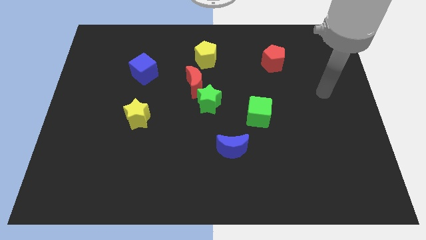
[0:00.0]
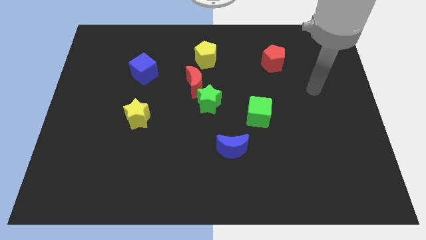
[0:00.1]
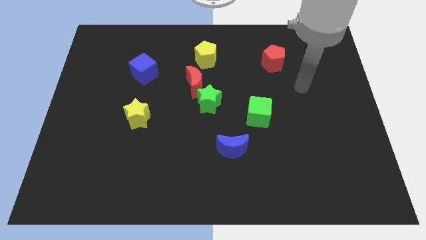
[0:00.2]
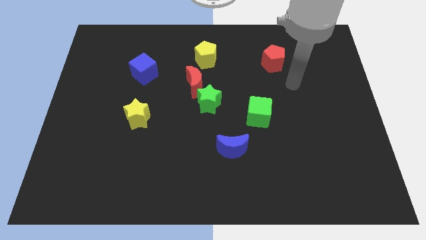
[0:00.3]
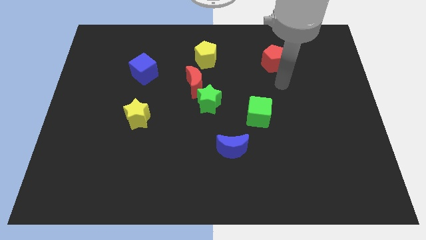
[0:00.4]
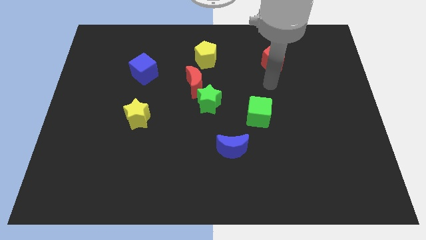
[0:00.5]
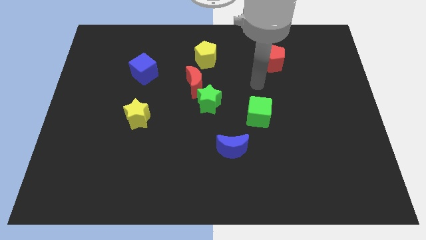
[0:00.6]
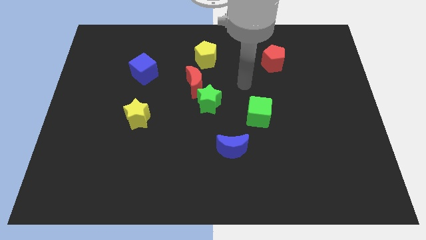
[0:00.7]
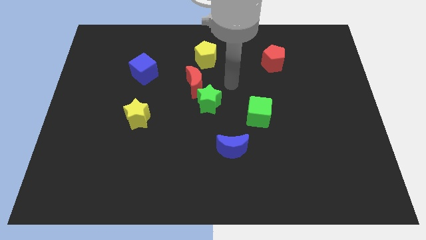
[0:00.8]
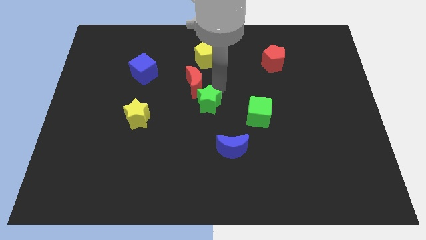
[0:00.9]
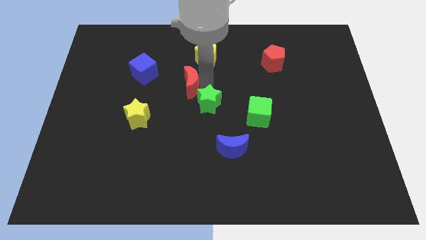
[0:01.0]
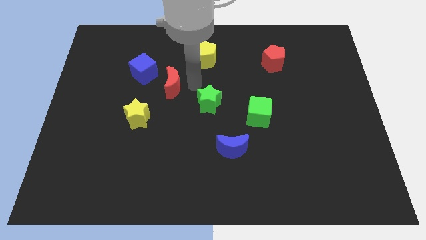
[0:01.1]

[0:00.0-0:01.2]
move the green star away from the red moon

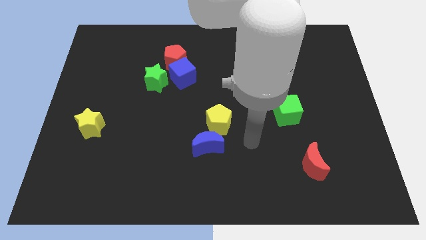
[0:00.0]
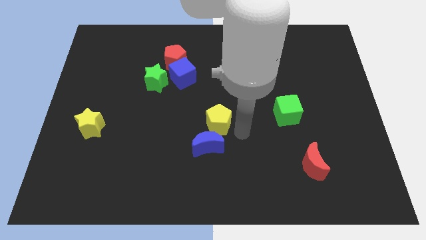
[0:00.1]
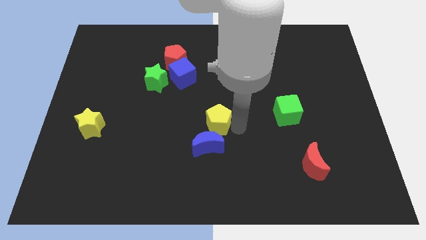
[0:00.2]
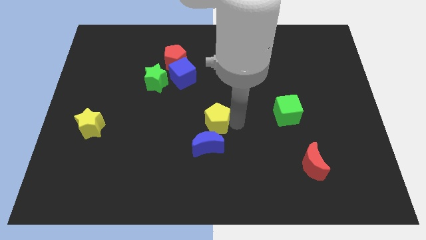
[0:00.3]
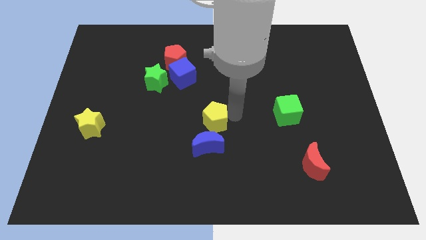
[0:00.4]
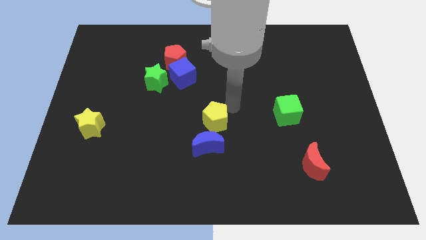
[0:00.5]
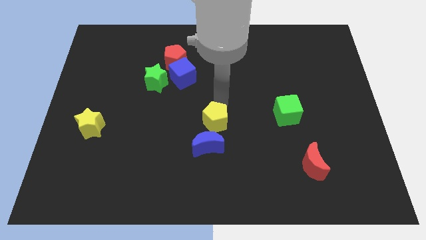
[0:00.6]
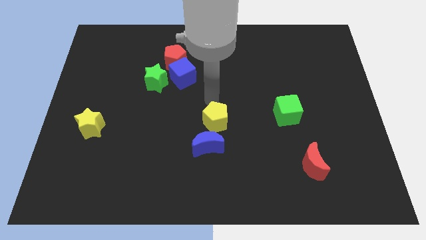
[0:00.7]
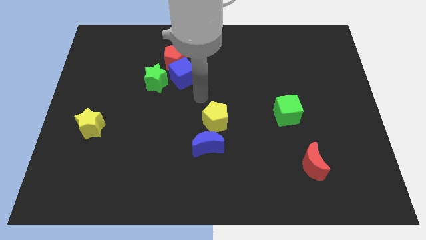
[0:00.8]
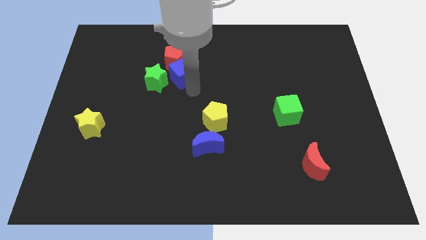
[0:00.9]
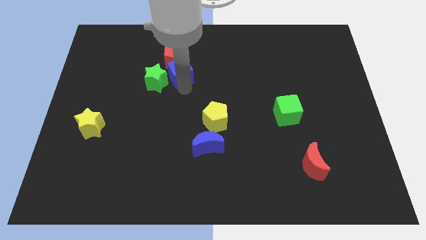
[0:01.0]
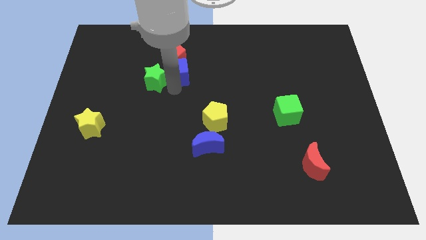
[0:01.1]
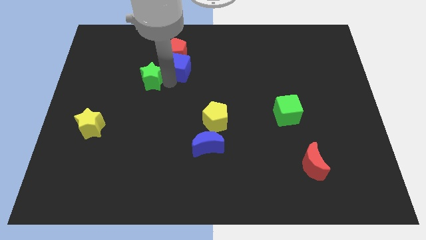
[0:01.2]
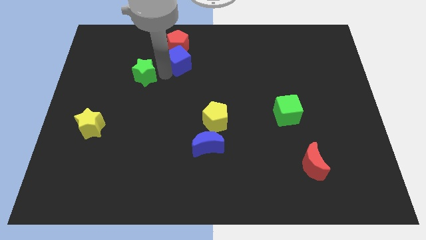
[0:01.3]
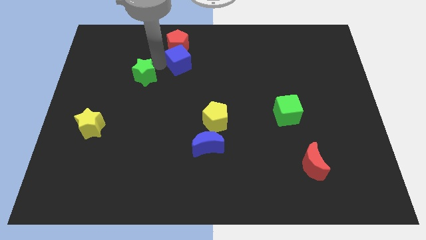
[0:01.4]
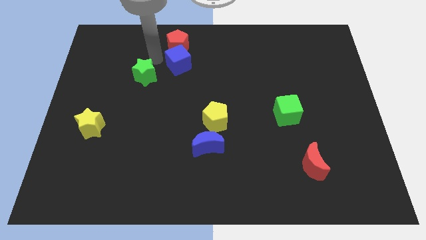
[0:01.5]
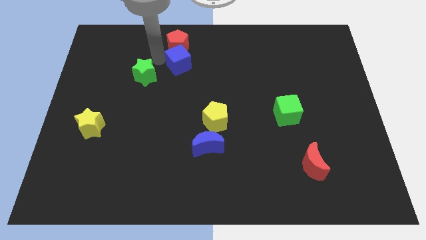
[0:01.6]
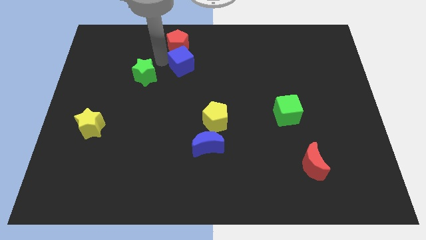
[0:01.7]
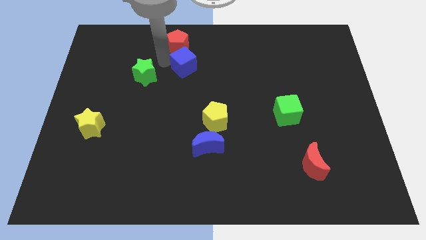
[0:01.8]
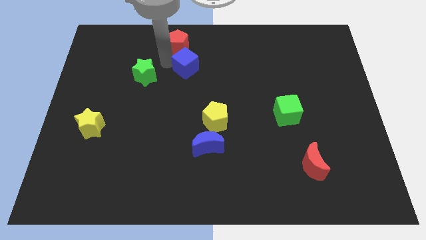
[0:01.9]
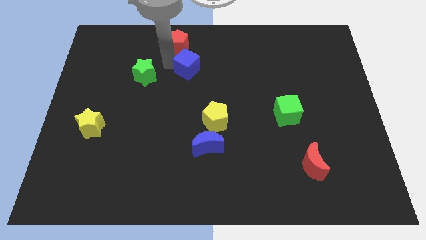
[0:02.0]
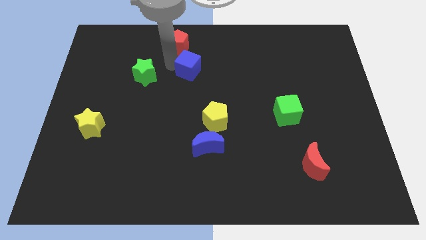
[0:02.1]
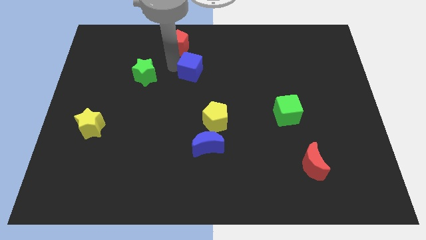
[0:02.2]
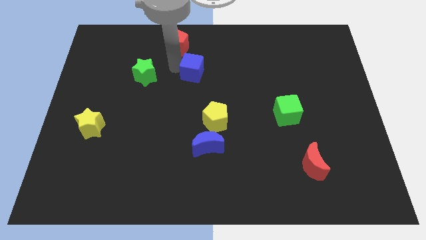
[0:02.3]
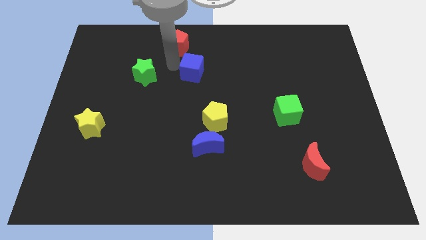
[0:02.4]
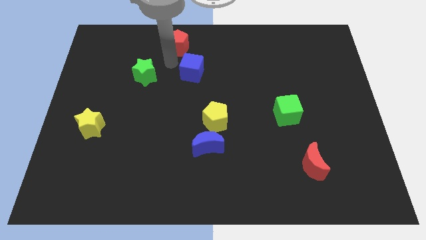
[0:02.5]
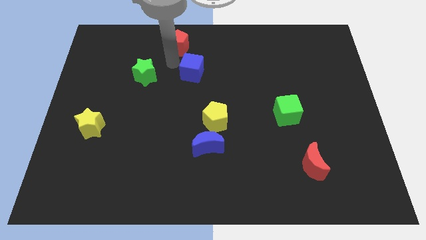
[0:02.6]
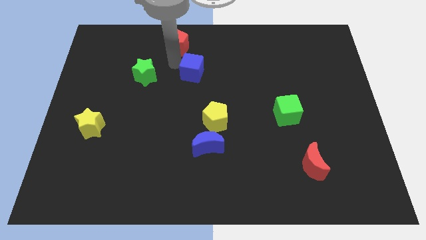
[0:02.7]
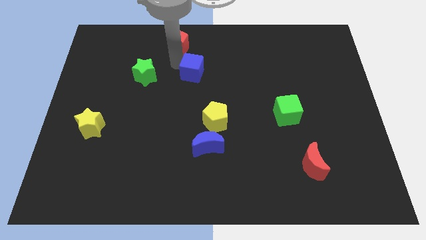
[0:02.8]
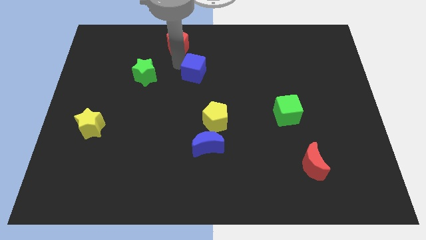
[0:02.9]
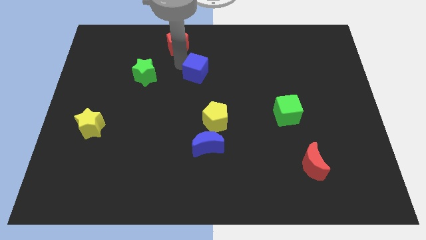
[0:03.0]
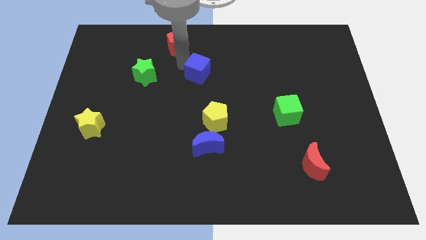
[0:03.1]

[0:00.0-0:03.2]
pull the blue cube apart from the red pentagon and green star

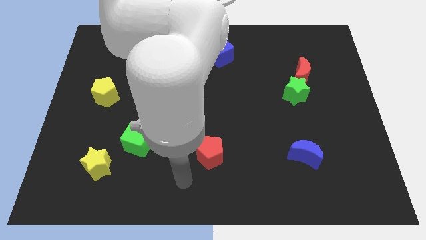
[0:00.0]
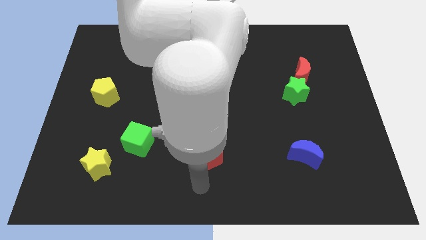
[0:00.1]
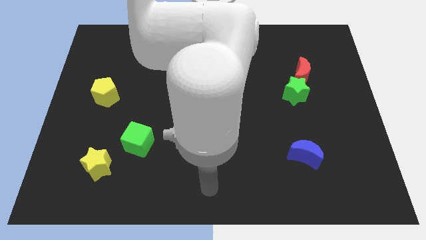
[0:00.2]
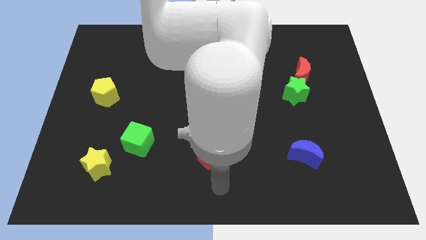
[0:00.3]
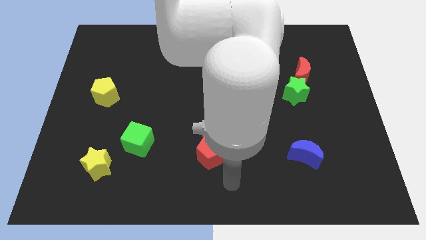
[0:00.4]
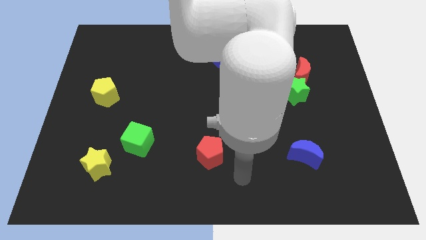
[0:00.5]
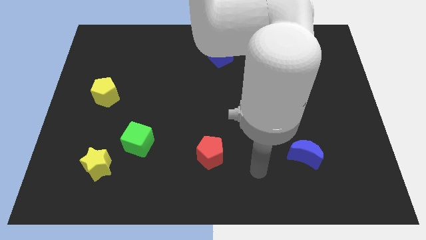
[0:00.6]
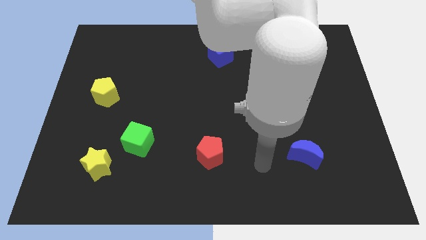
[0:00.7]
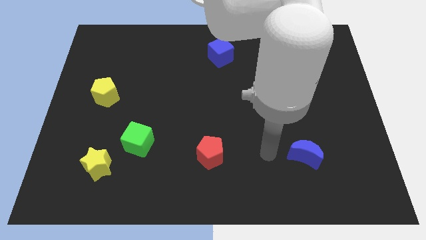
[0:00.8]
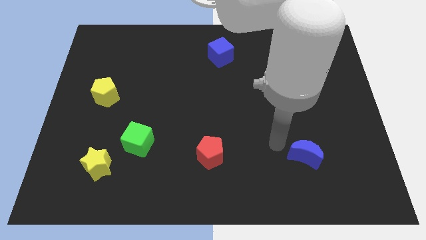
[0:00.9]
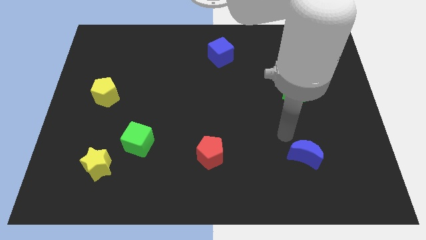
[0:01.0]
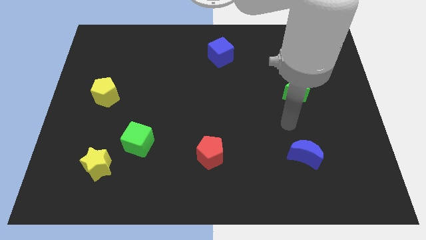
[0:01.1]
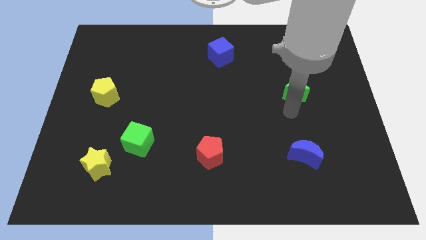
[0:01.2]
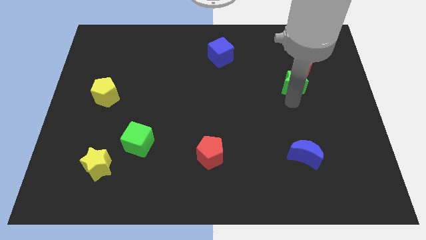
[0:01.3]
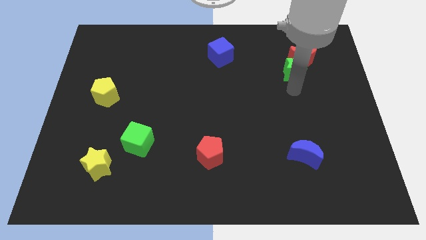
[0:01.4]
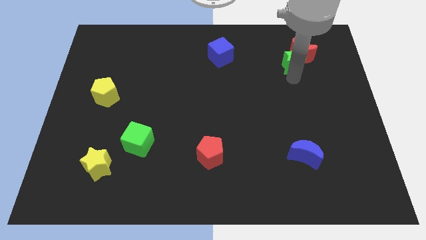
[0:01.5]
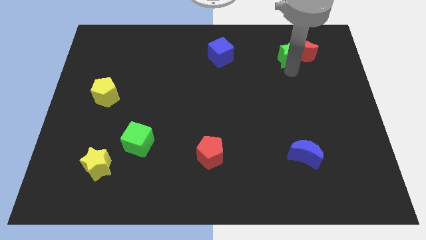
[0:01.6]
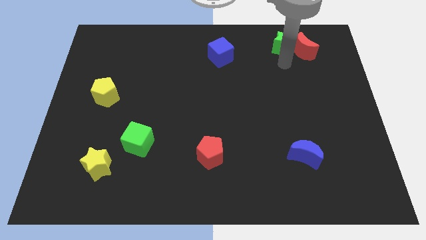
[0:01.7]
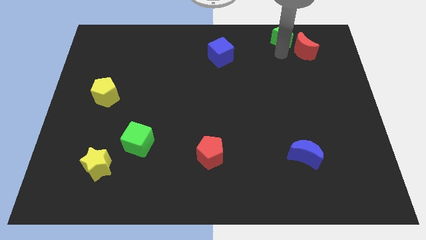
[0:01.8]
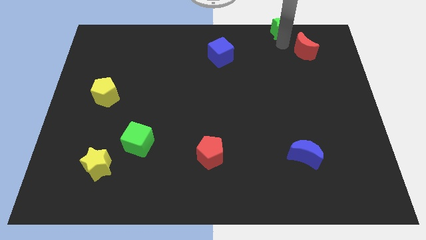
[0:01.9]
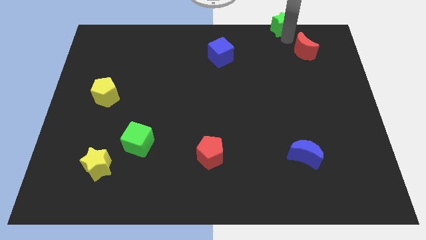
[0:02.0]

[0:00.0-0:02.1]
move the red moon away from the green star

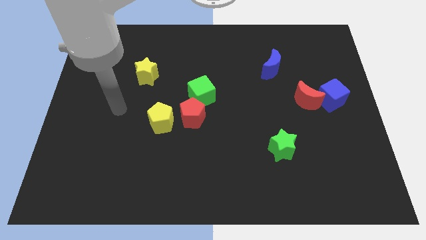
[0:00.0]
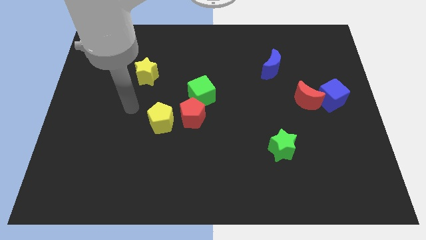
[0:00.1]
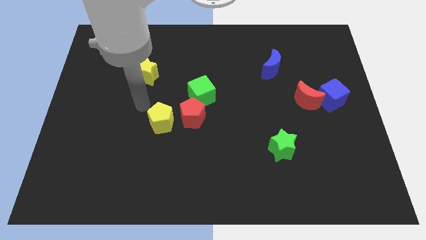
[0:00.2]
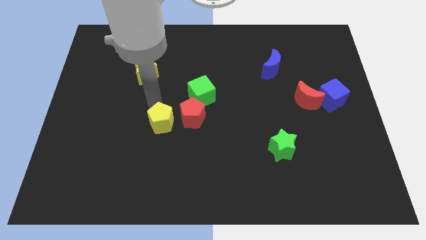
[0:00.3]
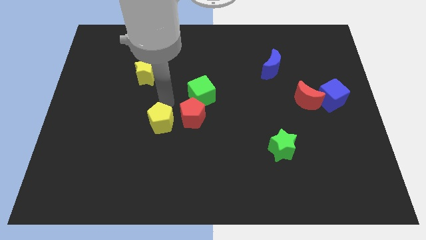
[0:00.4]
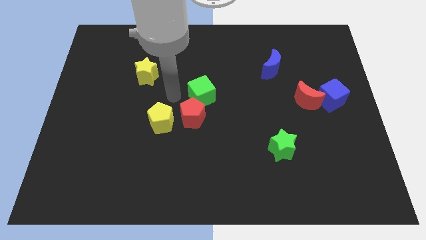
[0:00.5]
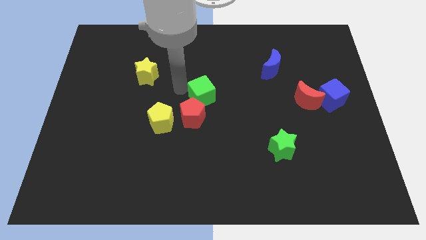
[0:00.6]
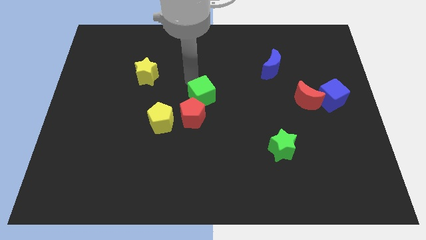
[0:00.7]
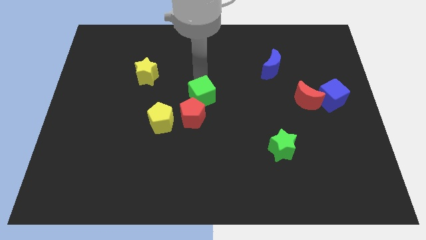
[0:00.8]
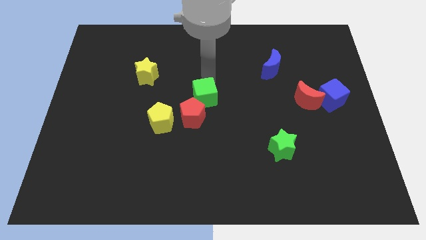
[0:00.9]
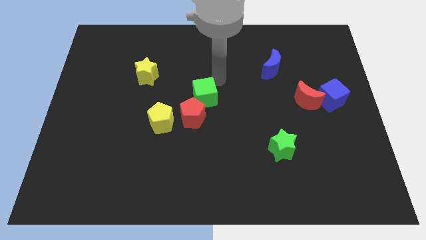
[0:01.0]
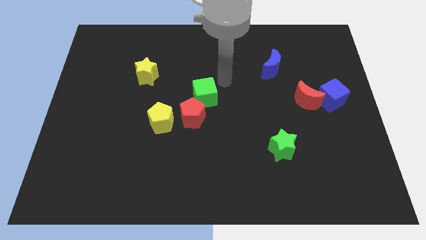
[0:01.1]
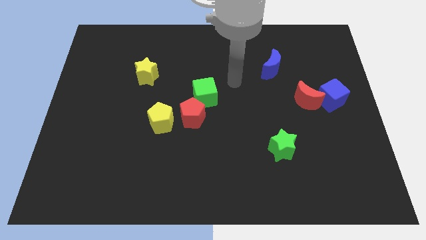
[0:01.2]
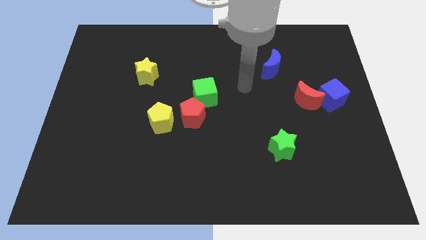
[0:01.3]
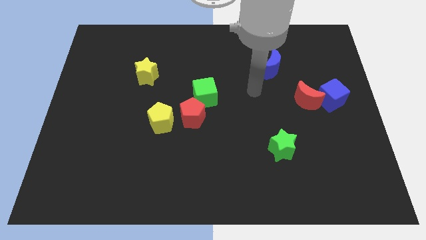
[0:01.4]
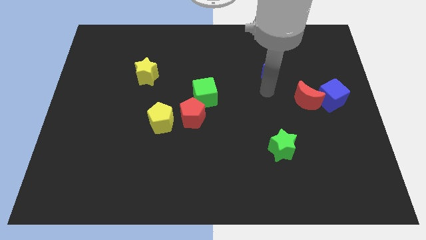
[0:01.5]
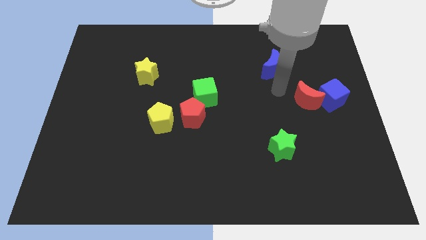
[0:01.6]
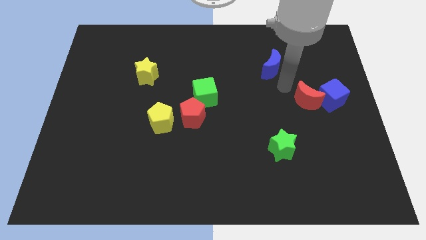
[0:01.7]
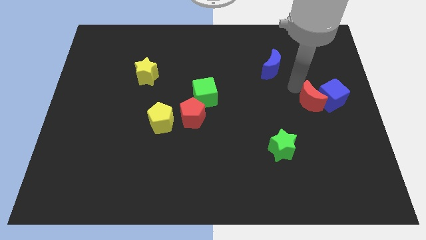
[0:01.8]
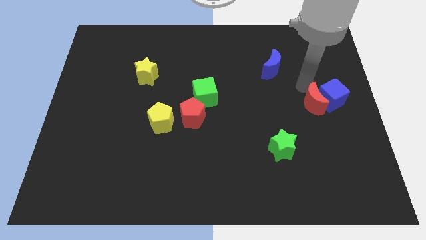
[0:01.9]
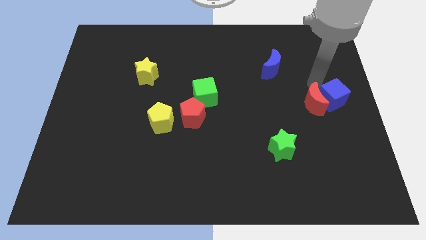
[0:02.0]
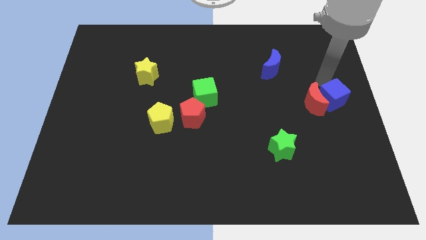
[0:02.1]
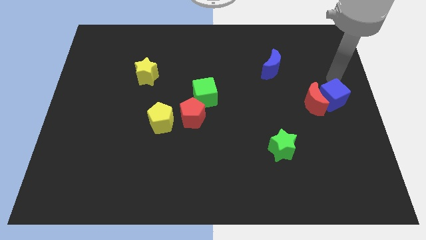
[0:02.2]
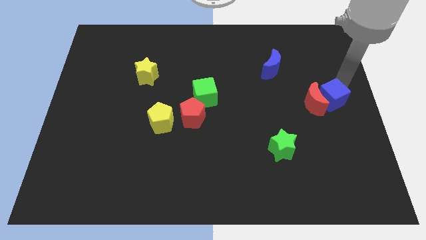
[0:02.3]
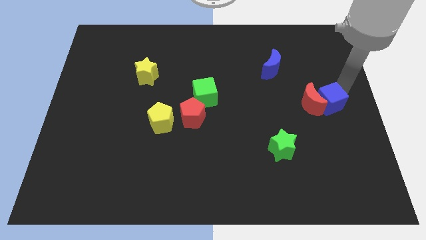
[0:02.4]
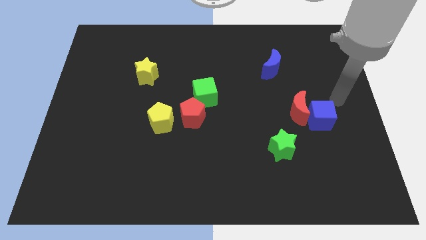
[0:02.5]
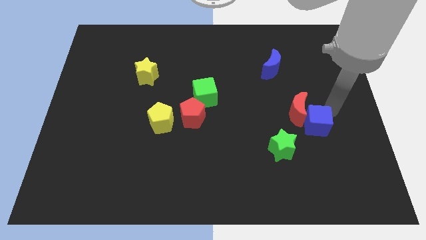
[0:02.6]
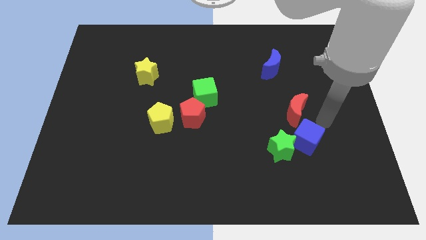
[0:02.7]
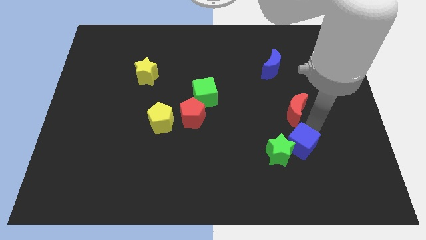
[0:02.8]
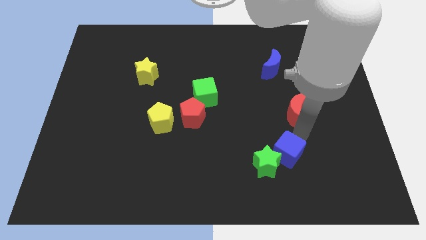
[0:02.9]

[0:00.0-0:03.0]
separate the red moon from the blue cube
